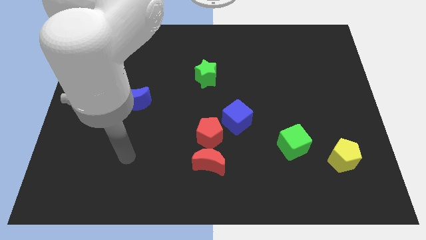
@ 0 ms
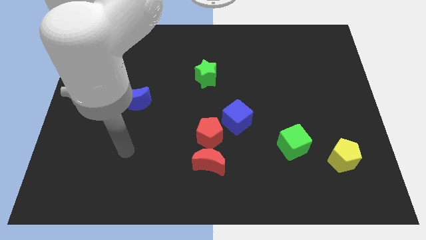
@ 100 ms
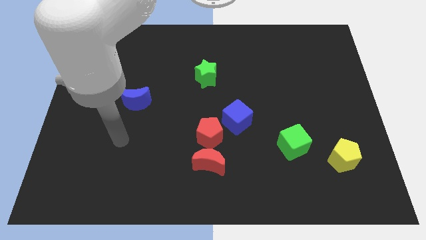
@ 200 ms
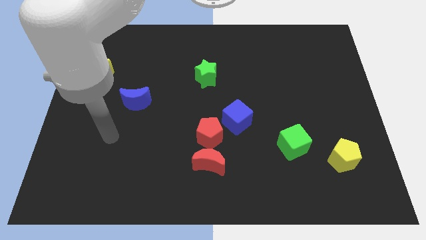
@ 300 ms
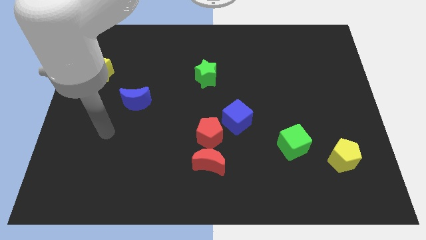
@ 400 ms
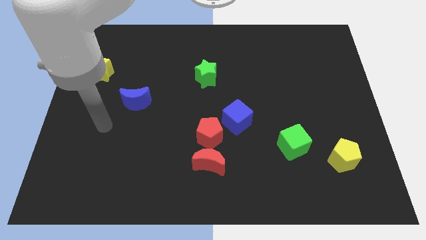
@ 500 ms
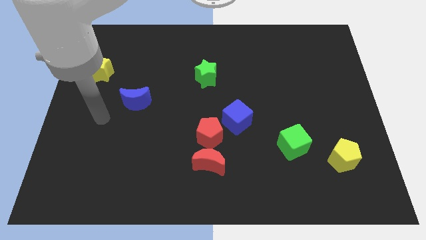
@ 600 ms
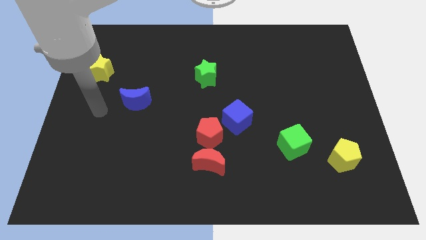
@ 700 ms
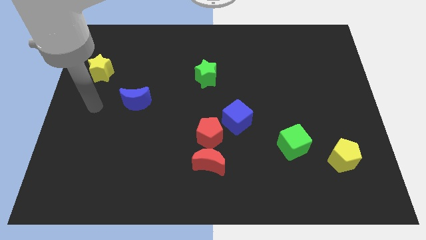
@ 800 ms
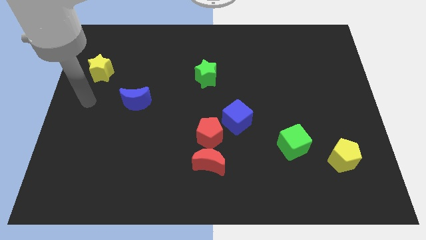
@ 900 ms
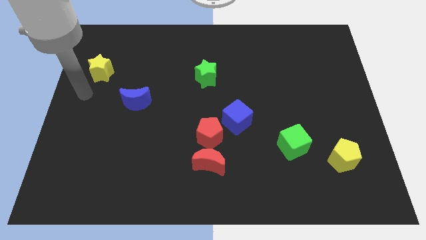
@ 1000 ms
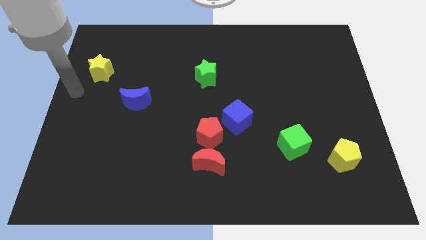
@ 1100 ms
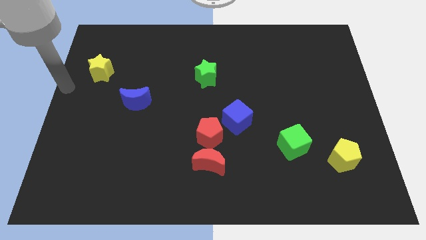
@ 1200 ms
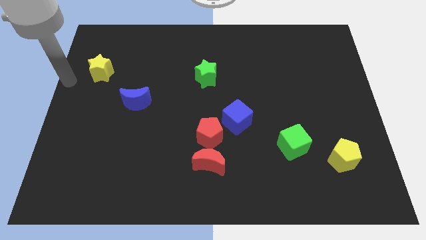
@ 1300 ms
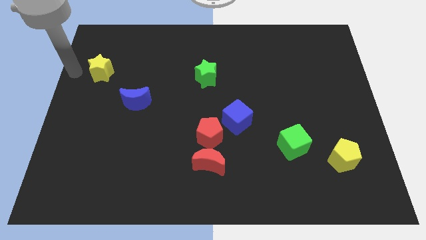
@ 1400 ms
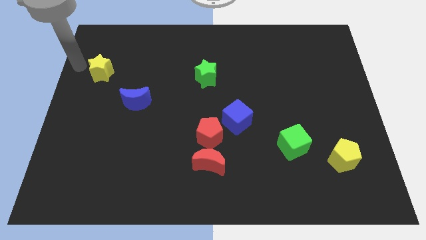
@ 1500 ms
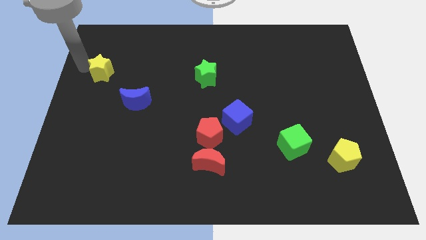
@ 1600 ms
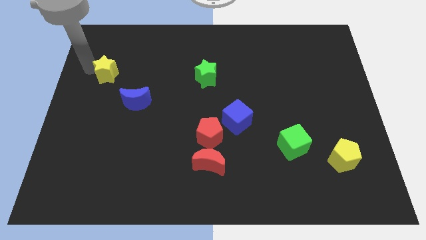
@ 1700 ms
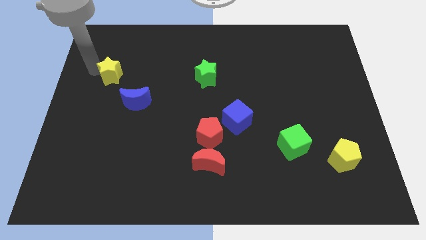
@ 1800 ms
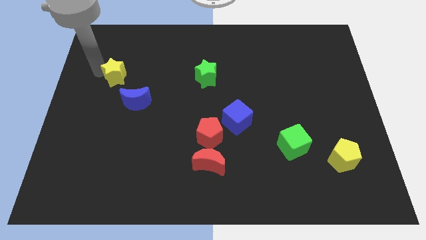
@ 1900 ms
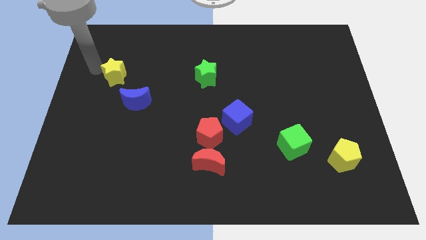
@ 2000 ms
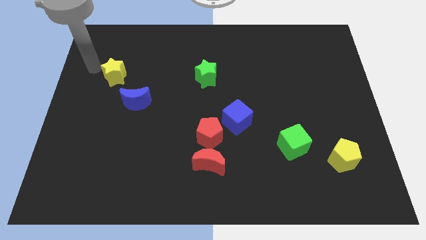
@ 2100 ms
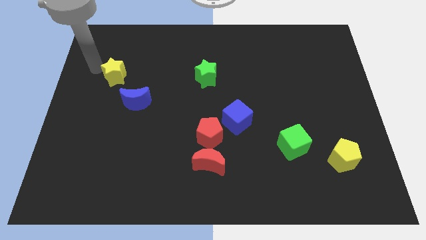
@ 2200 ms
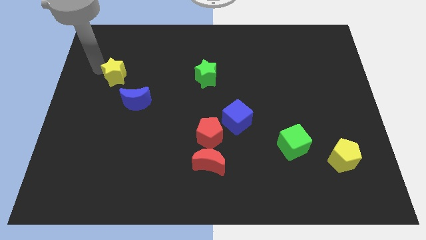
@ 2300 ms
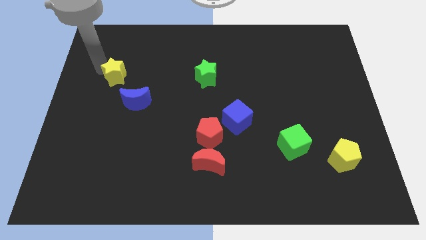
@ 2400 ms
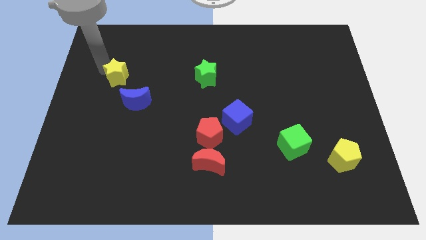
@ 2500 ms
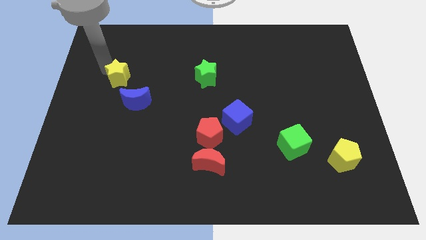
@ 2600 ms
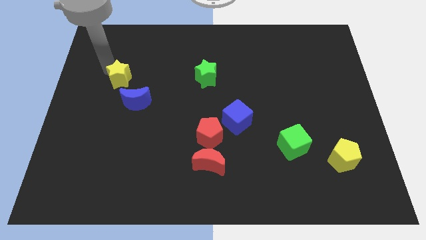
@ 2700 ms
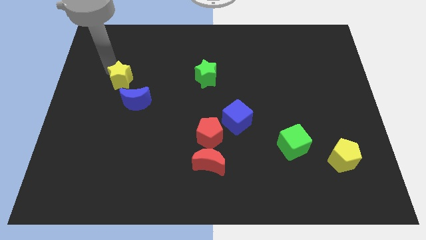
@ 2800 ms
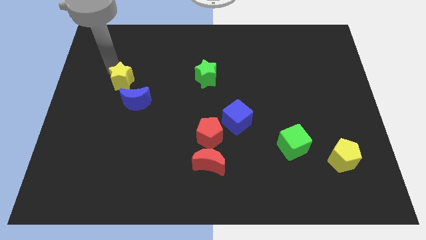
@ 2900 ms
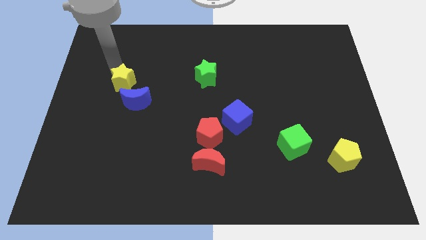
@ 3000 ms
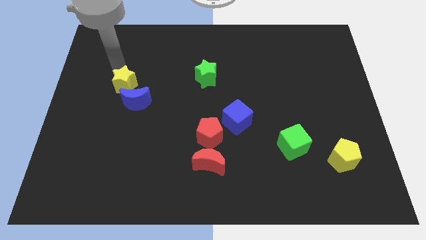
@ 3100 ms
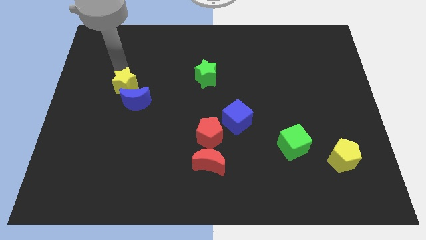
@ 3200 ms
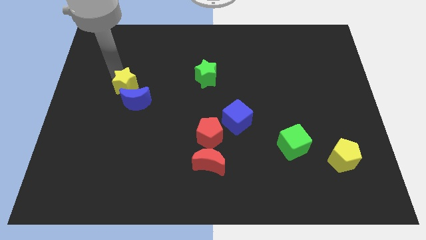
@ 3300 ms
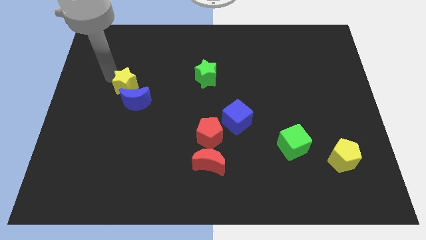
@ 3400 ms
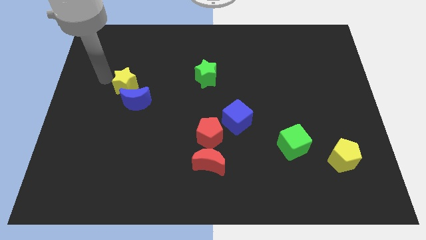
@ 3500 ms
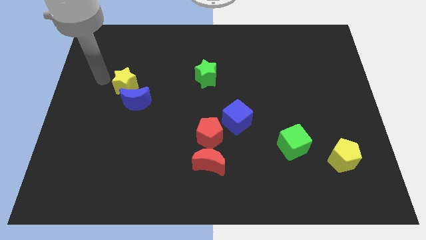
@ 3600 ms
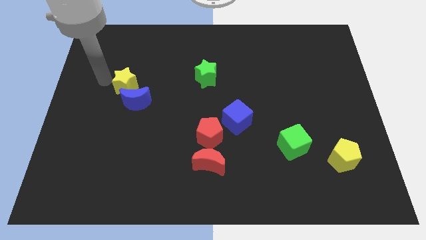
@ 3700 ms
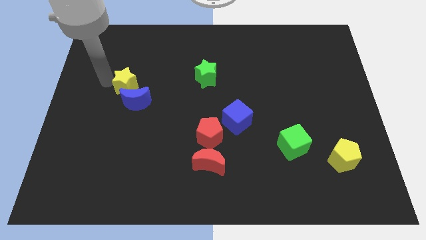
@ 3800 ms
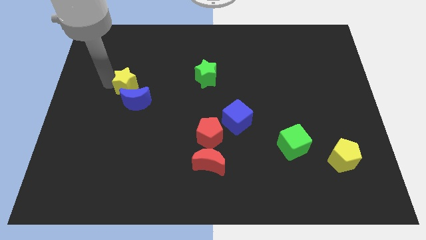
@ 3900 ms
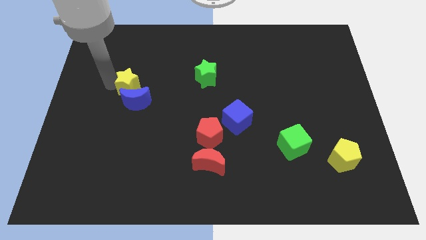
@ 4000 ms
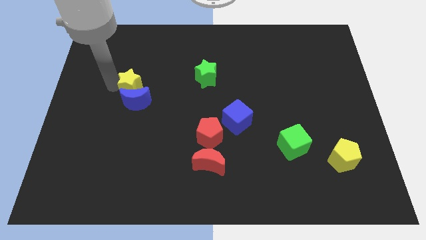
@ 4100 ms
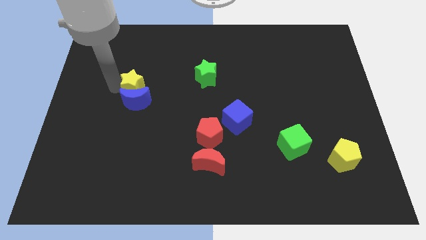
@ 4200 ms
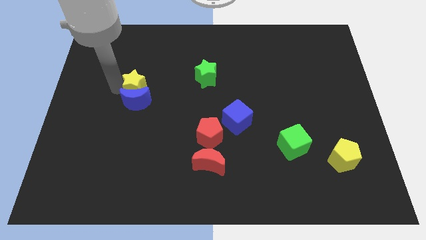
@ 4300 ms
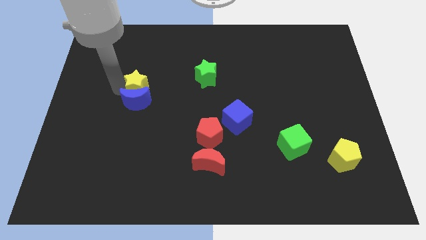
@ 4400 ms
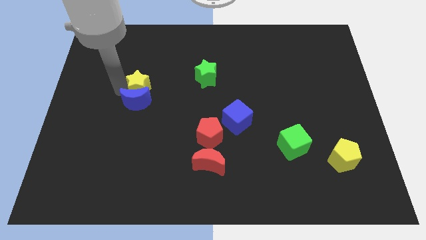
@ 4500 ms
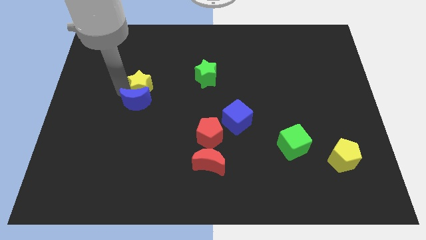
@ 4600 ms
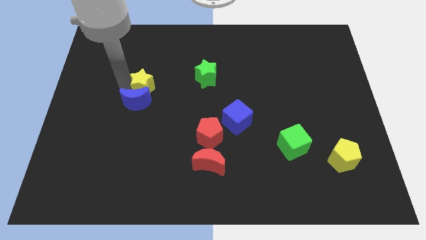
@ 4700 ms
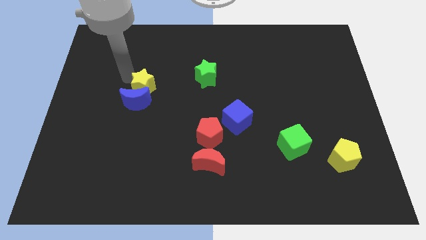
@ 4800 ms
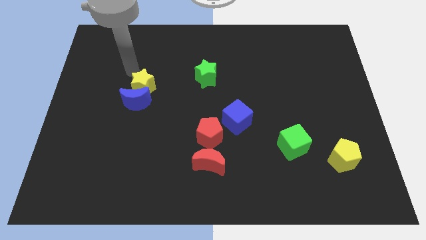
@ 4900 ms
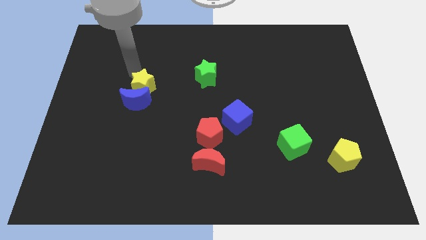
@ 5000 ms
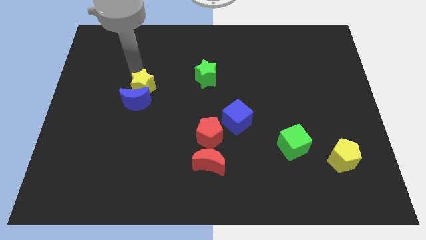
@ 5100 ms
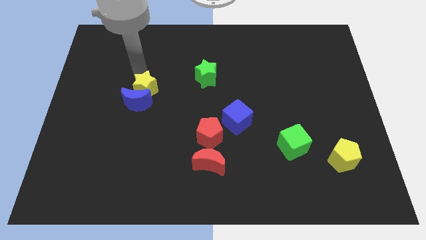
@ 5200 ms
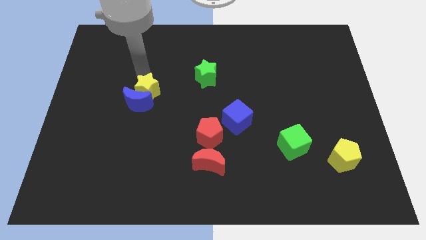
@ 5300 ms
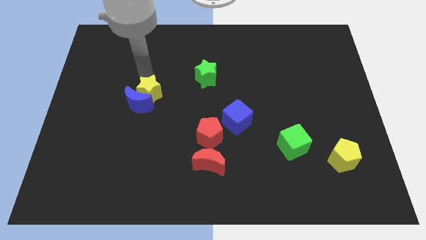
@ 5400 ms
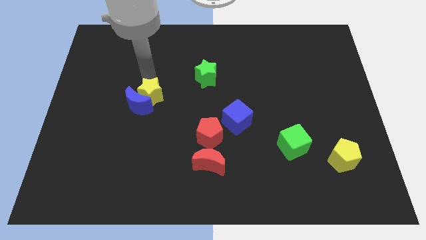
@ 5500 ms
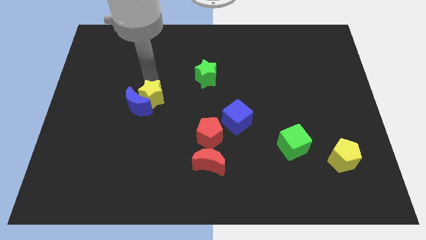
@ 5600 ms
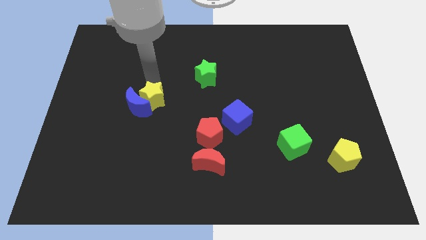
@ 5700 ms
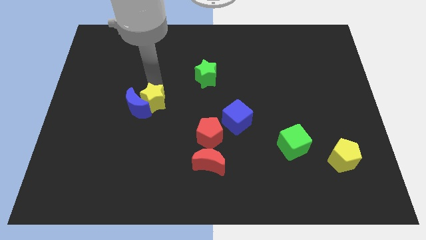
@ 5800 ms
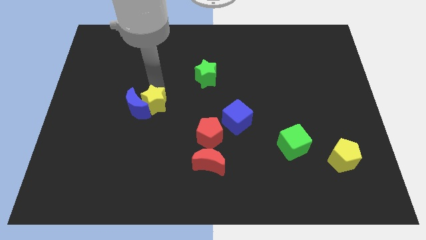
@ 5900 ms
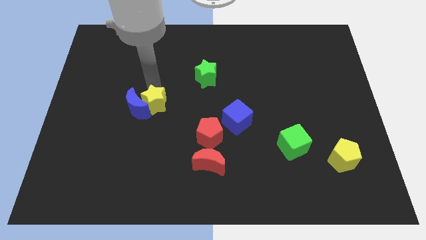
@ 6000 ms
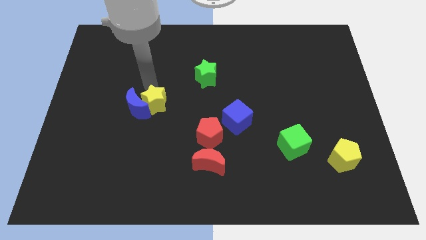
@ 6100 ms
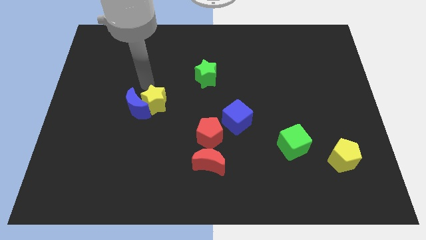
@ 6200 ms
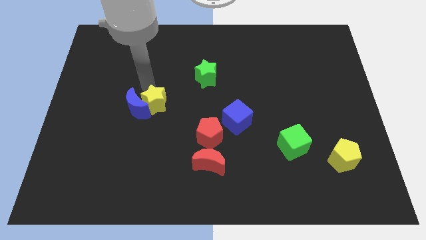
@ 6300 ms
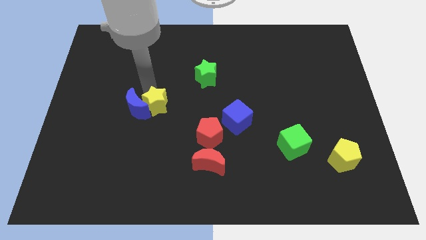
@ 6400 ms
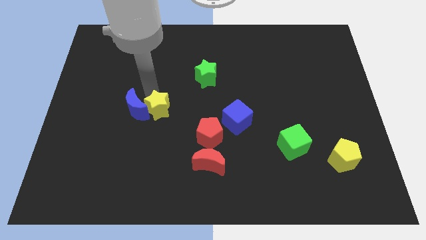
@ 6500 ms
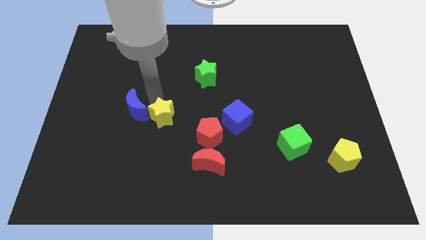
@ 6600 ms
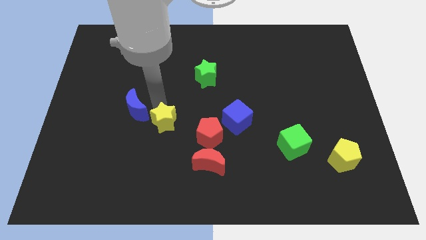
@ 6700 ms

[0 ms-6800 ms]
move the yellow star just left of the red pentagon
